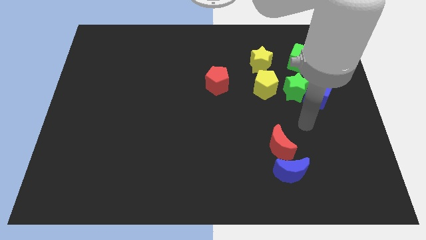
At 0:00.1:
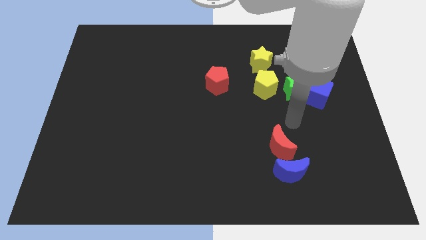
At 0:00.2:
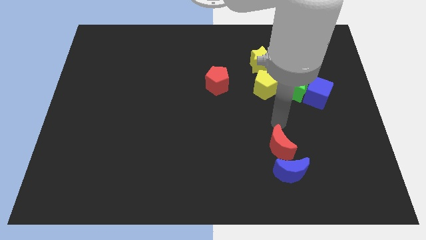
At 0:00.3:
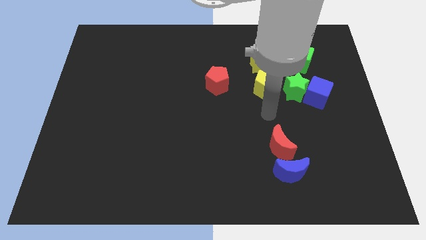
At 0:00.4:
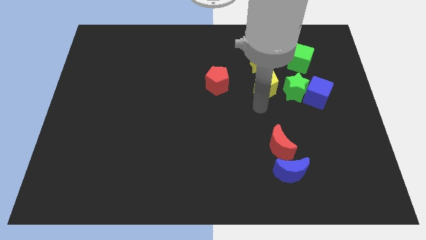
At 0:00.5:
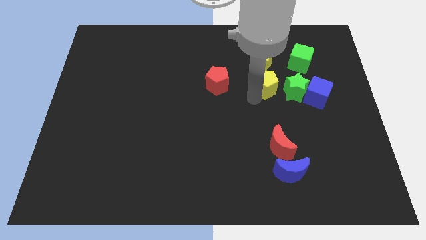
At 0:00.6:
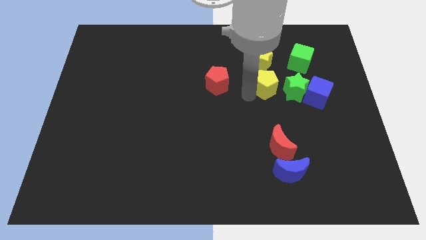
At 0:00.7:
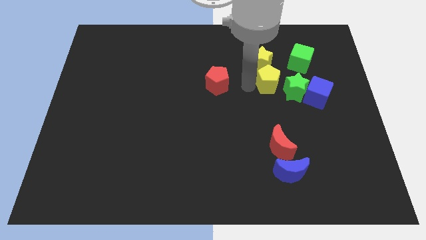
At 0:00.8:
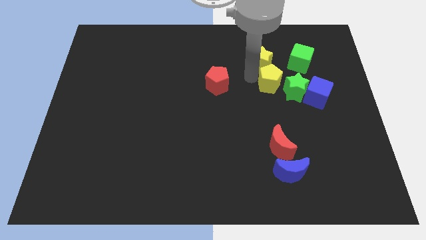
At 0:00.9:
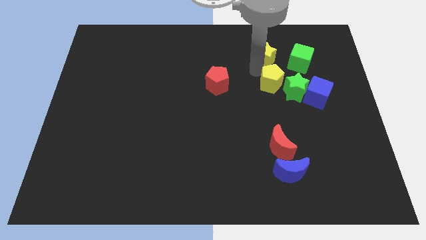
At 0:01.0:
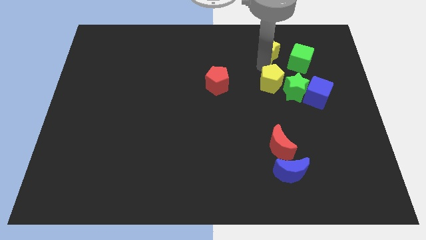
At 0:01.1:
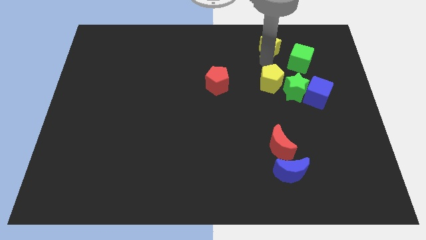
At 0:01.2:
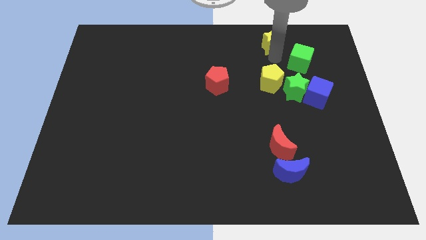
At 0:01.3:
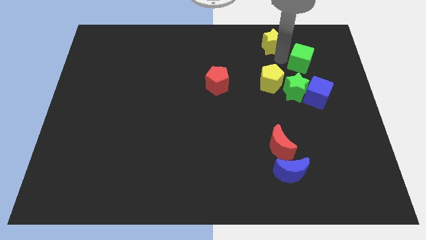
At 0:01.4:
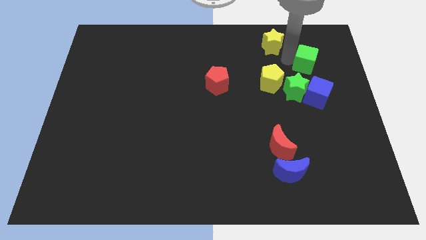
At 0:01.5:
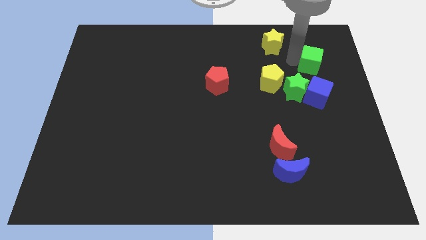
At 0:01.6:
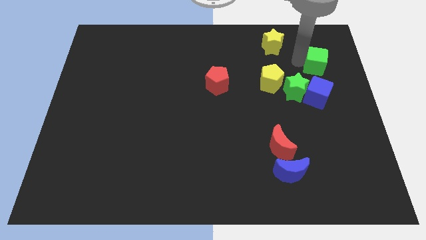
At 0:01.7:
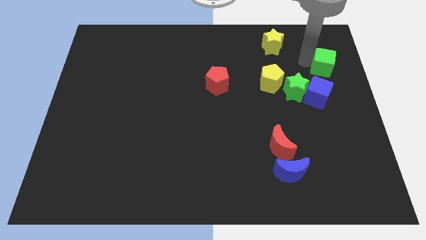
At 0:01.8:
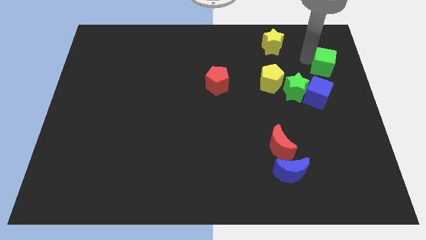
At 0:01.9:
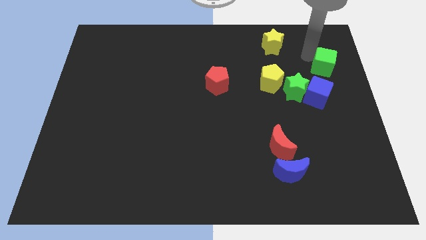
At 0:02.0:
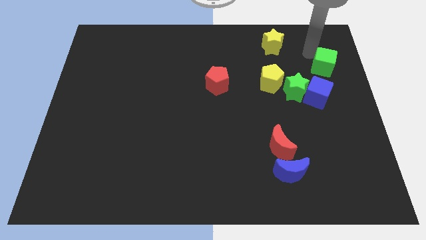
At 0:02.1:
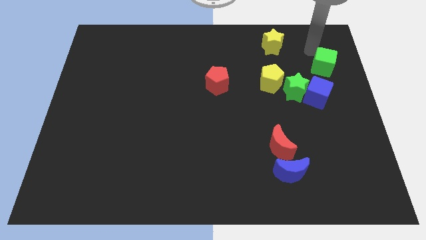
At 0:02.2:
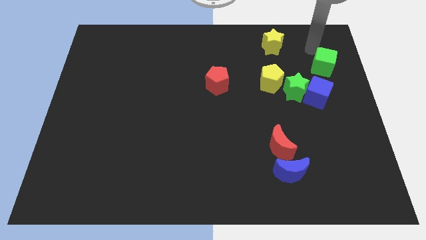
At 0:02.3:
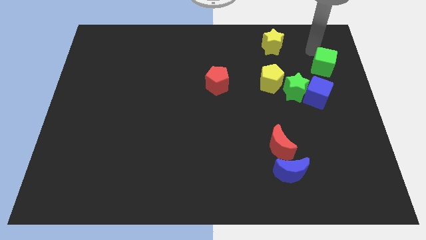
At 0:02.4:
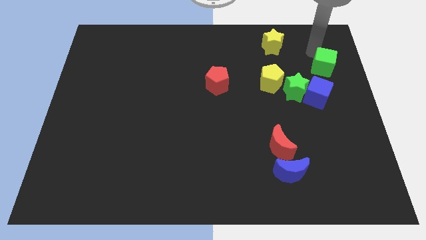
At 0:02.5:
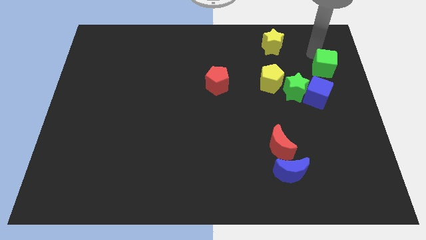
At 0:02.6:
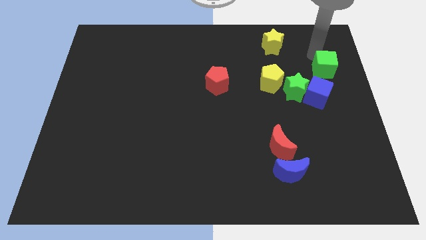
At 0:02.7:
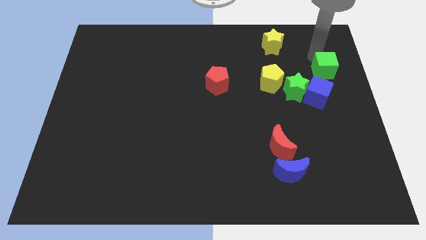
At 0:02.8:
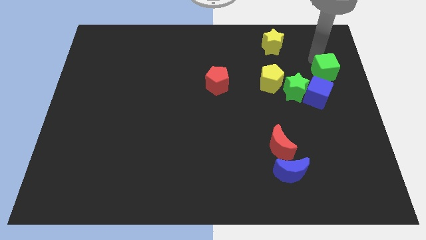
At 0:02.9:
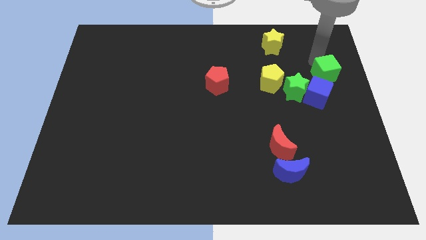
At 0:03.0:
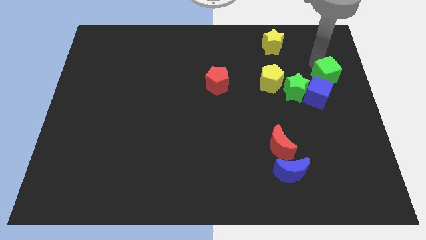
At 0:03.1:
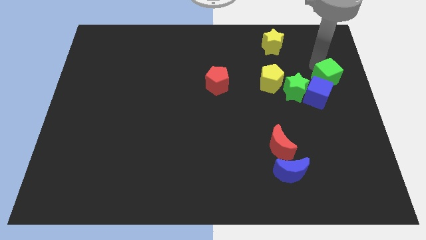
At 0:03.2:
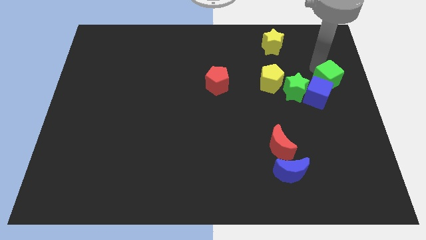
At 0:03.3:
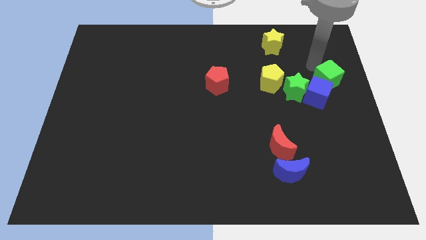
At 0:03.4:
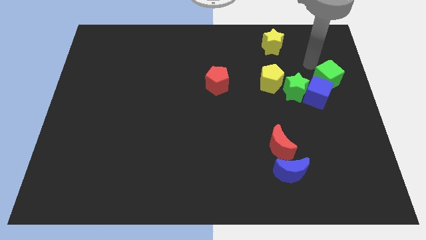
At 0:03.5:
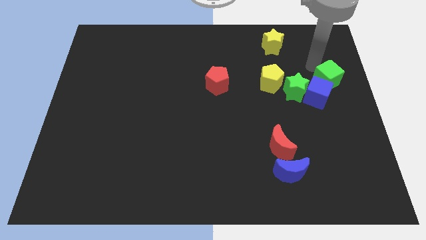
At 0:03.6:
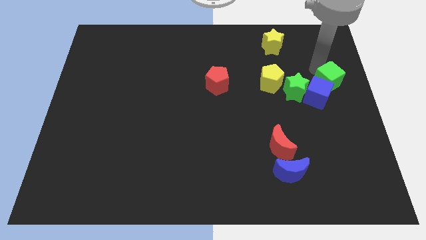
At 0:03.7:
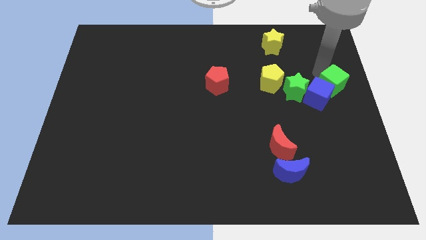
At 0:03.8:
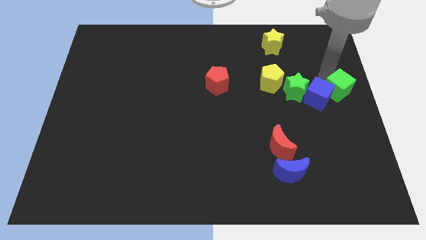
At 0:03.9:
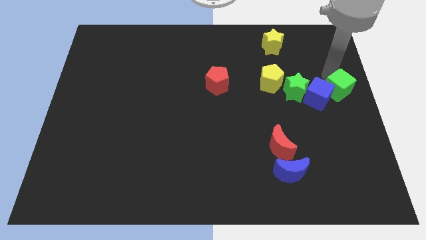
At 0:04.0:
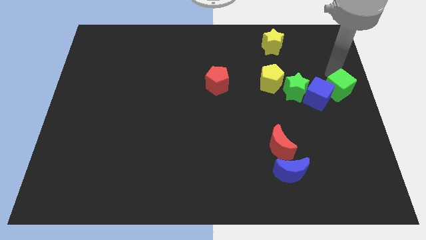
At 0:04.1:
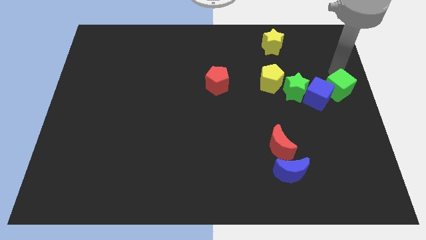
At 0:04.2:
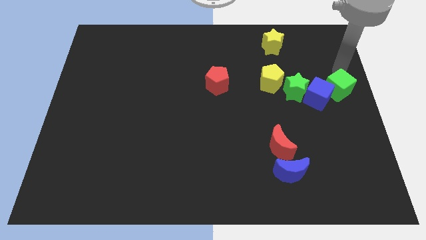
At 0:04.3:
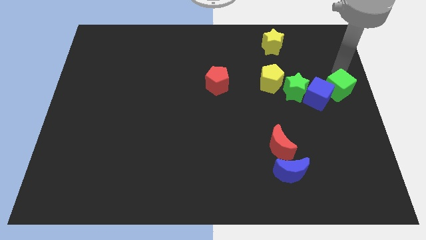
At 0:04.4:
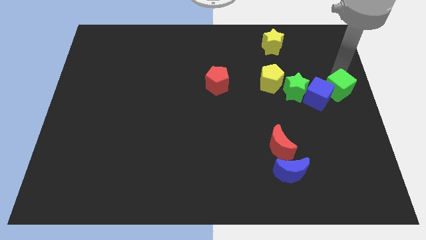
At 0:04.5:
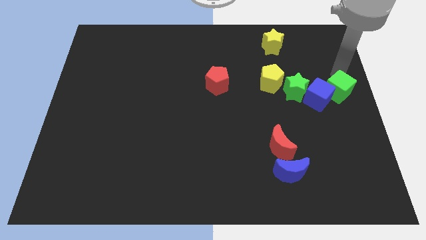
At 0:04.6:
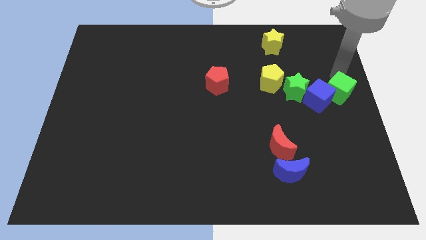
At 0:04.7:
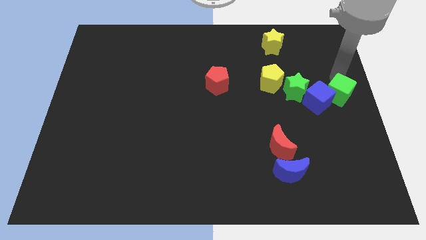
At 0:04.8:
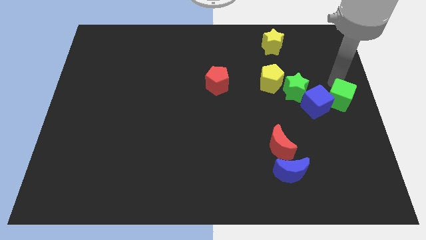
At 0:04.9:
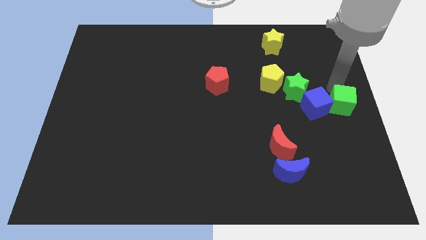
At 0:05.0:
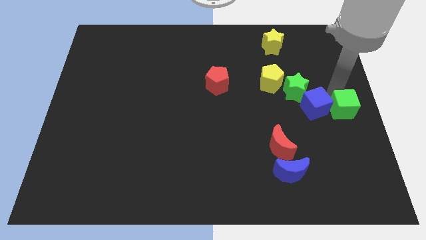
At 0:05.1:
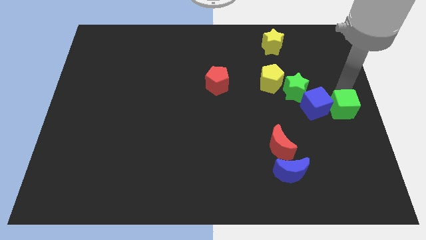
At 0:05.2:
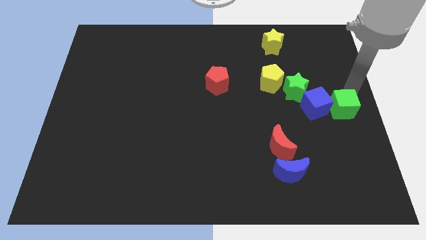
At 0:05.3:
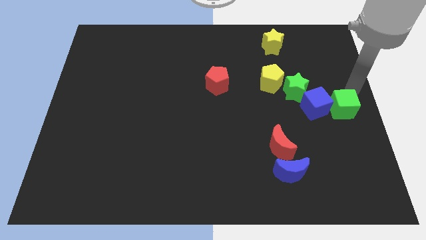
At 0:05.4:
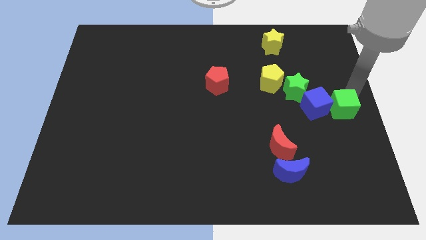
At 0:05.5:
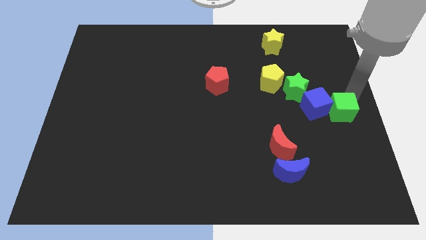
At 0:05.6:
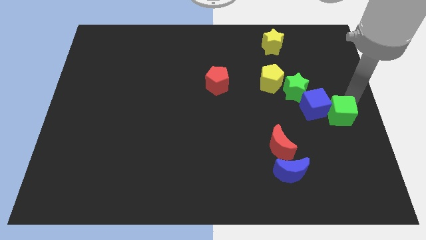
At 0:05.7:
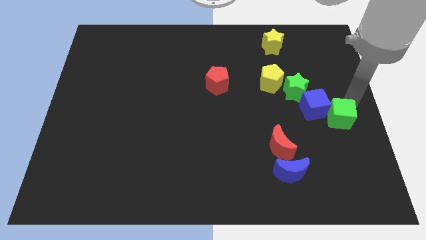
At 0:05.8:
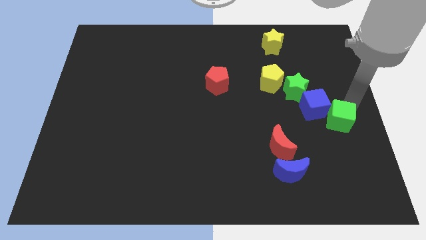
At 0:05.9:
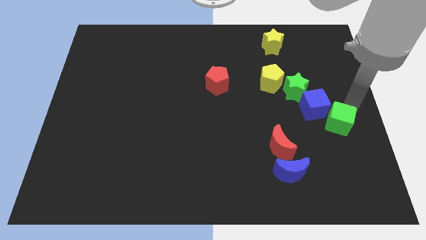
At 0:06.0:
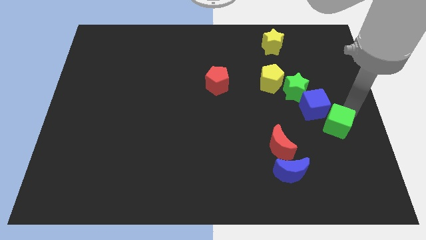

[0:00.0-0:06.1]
push the green cube to the bottom side of the blue cube

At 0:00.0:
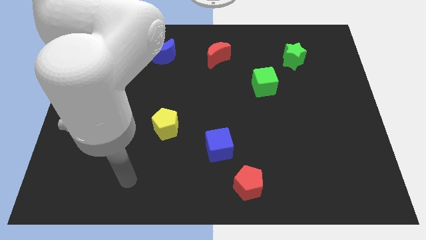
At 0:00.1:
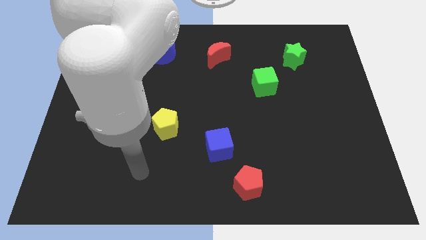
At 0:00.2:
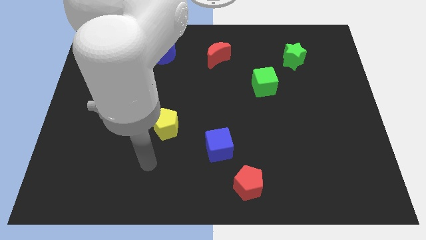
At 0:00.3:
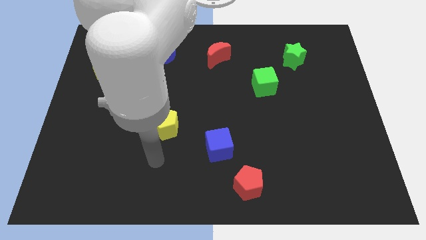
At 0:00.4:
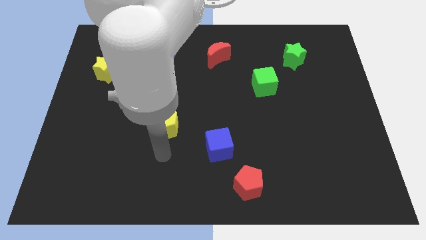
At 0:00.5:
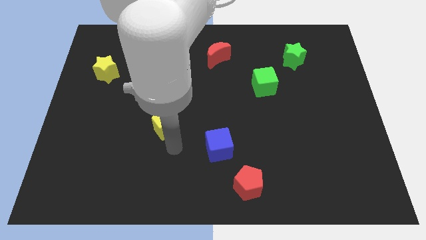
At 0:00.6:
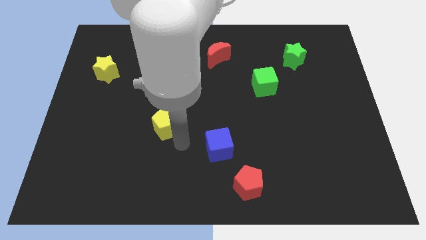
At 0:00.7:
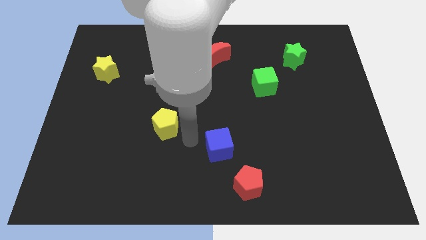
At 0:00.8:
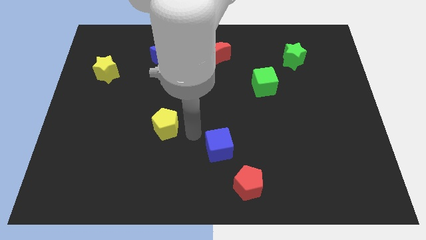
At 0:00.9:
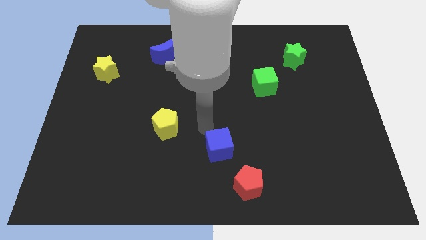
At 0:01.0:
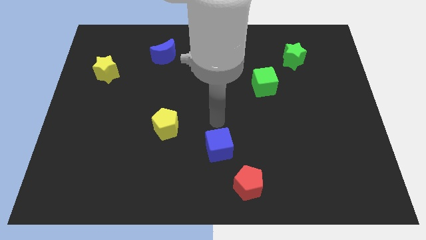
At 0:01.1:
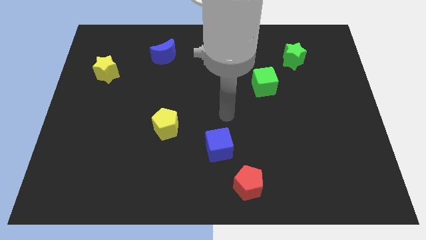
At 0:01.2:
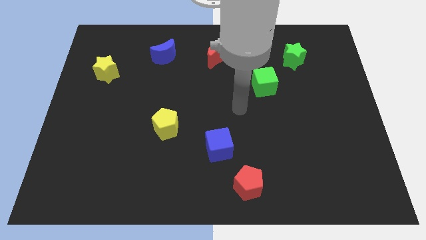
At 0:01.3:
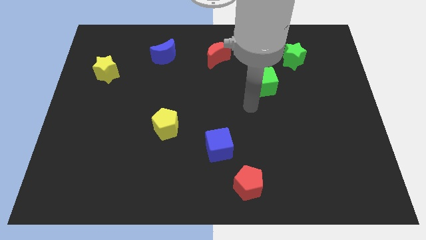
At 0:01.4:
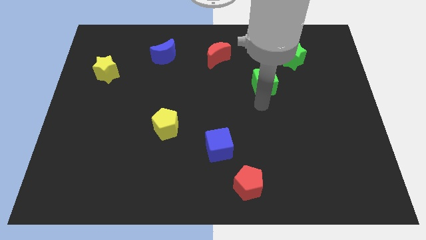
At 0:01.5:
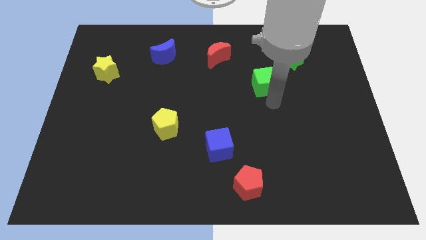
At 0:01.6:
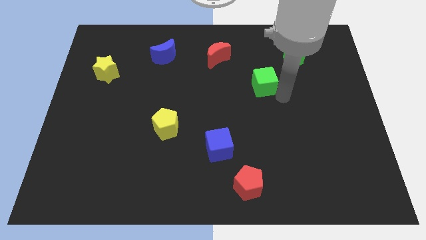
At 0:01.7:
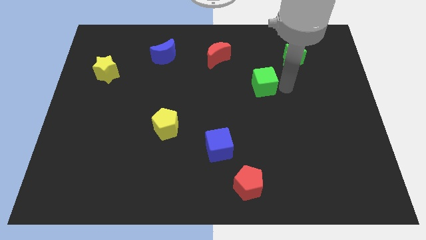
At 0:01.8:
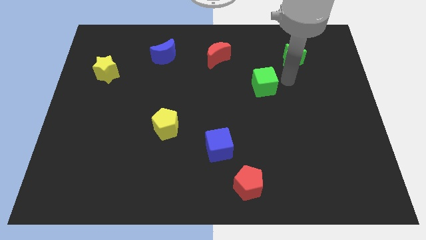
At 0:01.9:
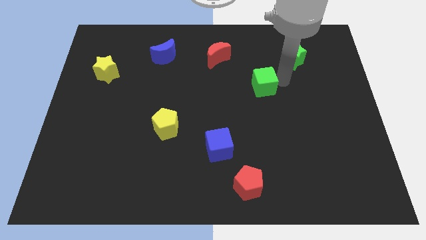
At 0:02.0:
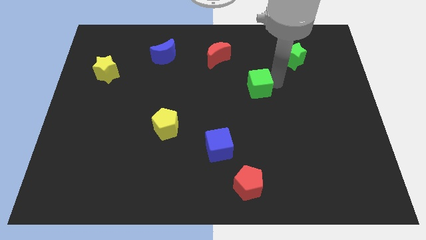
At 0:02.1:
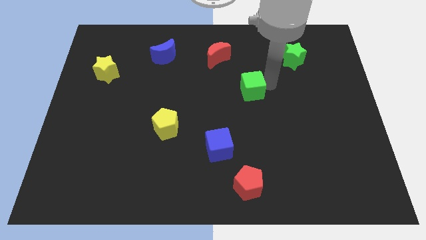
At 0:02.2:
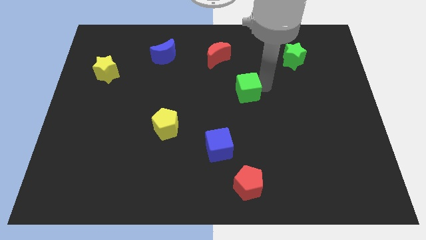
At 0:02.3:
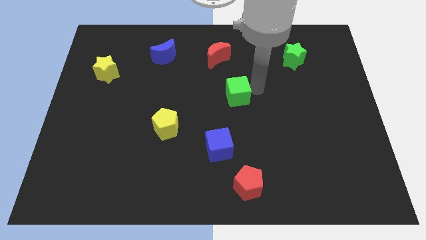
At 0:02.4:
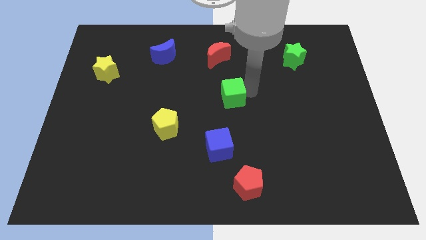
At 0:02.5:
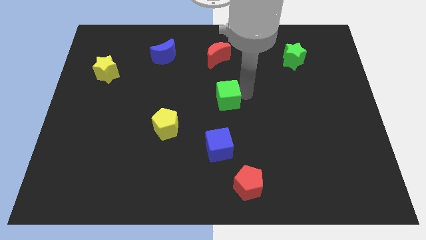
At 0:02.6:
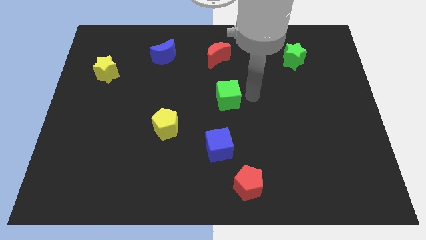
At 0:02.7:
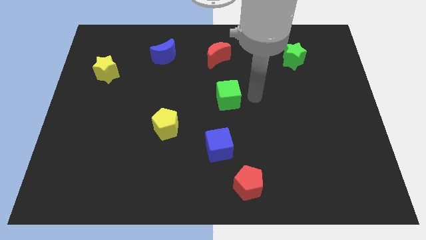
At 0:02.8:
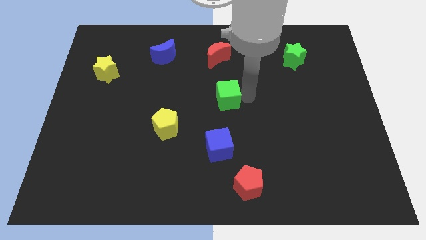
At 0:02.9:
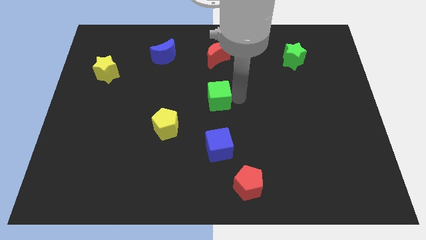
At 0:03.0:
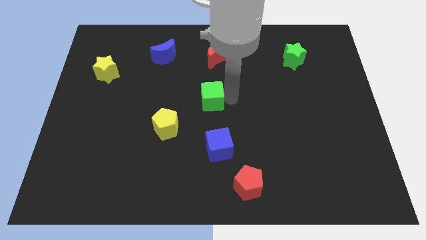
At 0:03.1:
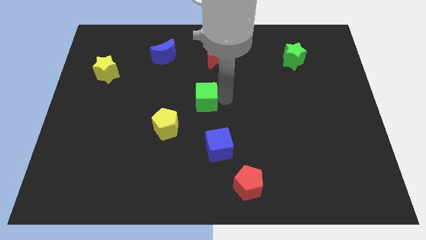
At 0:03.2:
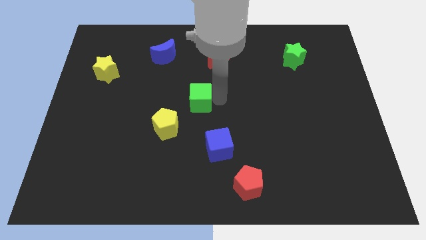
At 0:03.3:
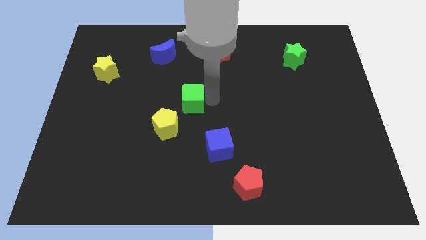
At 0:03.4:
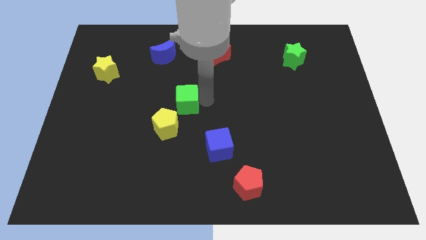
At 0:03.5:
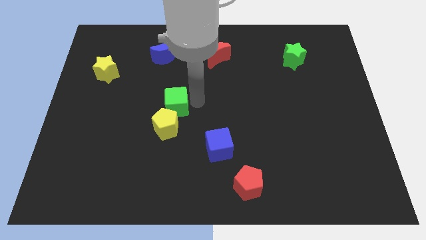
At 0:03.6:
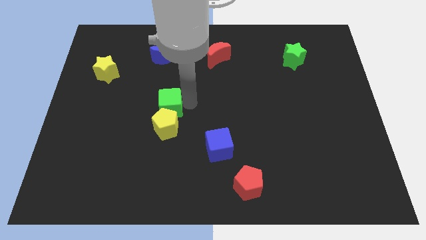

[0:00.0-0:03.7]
move the green cube to the top left of the yellow pentagon
